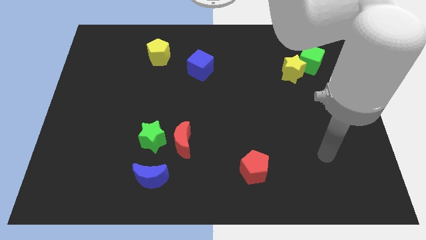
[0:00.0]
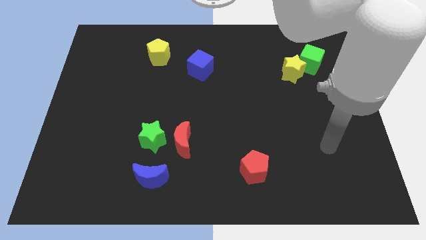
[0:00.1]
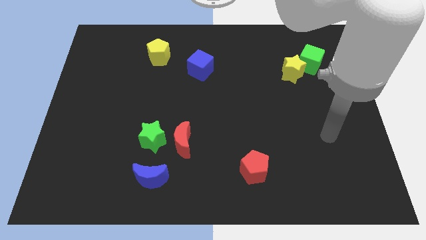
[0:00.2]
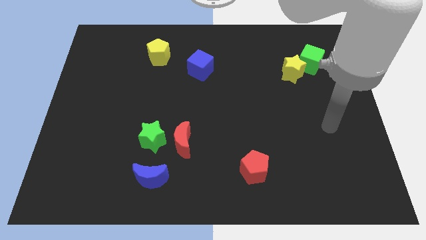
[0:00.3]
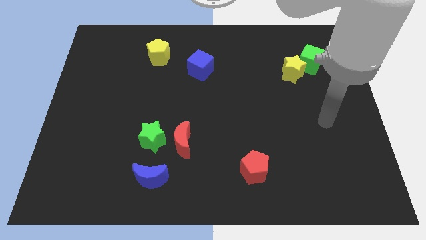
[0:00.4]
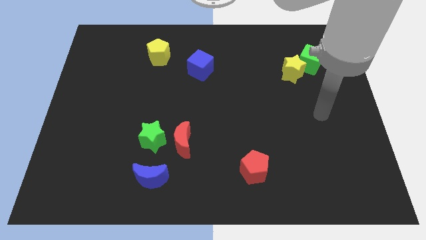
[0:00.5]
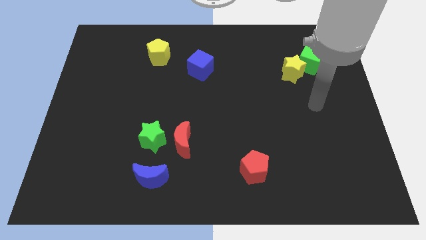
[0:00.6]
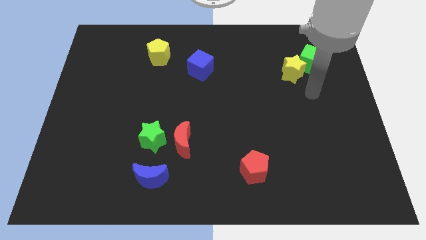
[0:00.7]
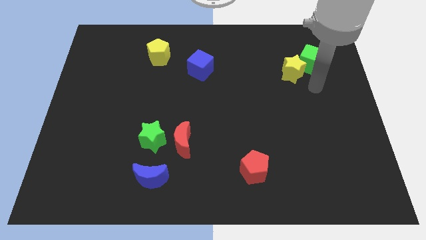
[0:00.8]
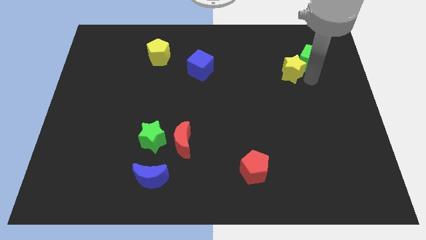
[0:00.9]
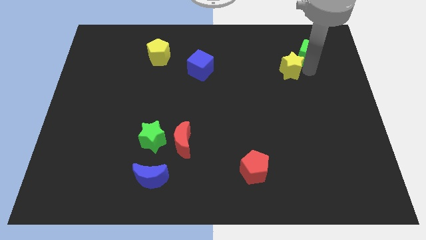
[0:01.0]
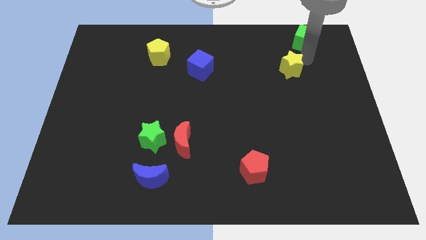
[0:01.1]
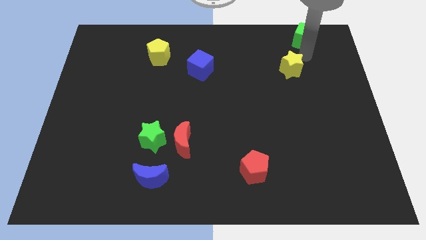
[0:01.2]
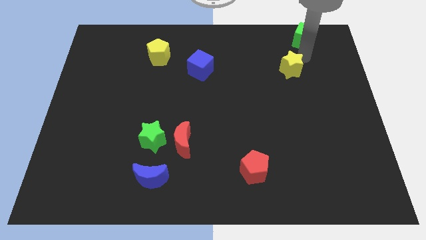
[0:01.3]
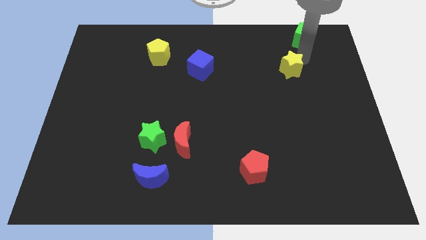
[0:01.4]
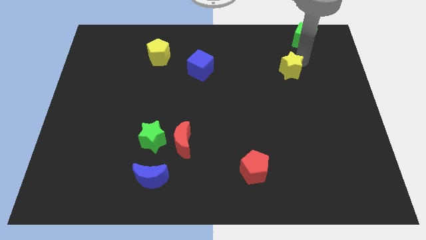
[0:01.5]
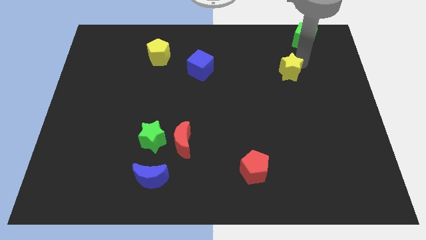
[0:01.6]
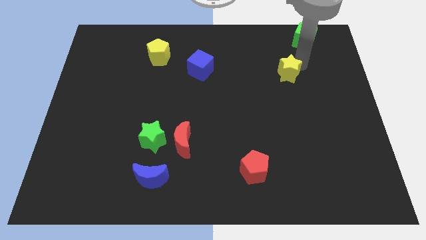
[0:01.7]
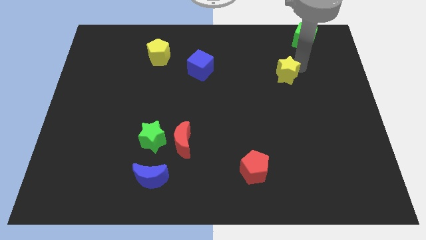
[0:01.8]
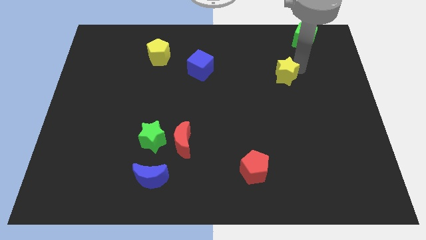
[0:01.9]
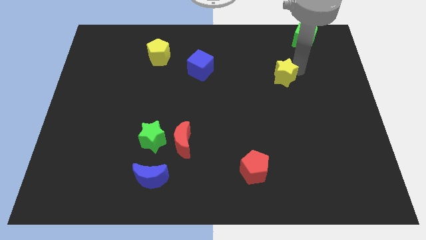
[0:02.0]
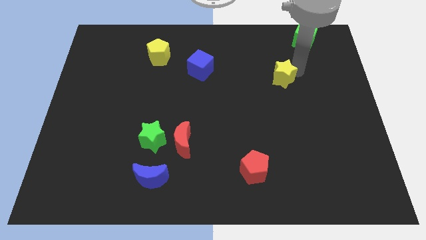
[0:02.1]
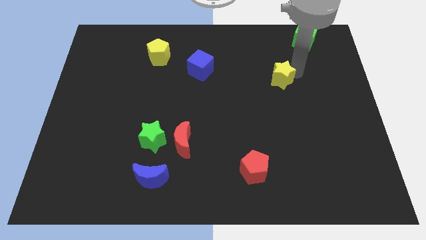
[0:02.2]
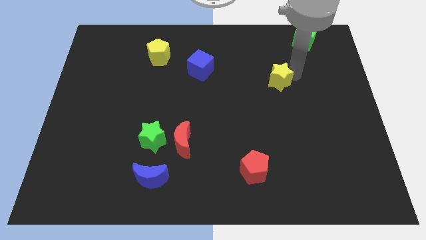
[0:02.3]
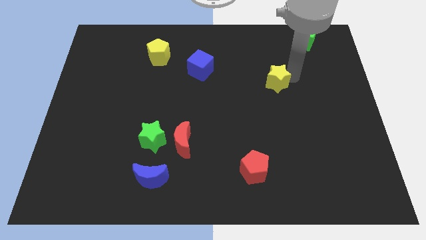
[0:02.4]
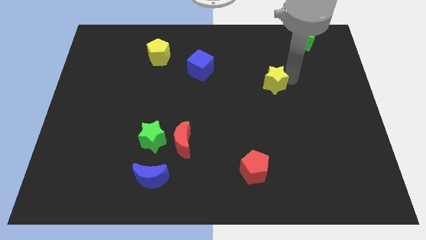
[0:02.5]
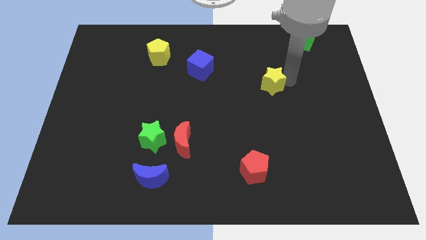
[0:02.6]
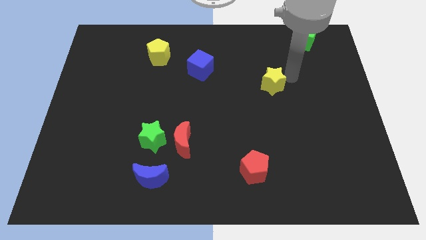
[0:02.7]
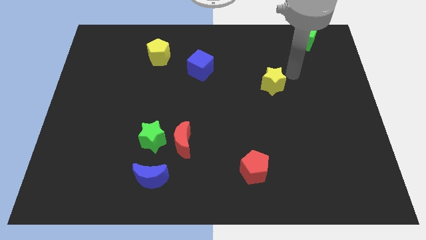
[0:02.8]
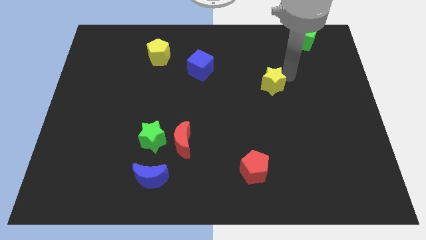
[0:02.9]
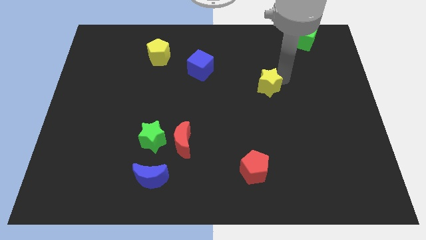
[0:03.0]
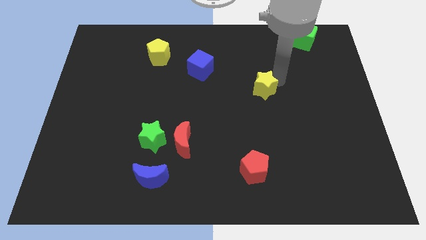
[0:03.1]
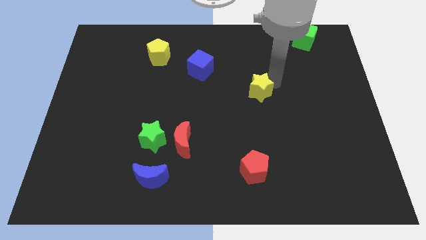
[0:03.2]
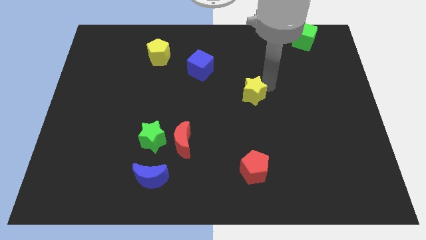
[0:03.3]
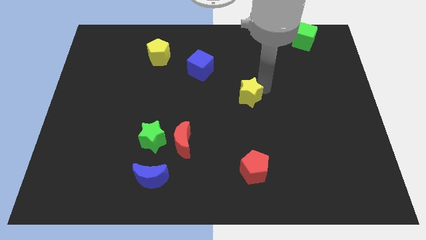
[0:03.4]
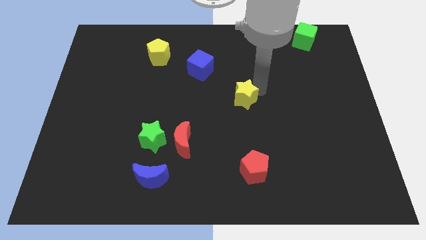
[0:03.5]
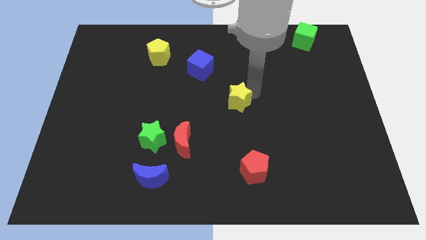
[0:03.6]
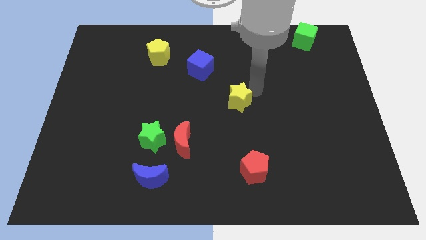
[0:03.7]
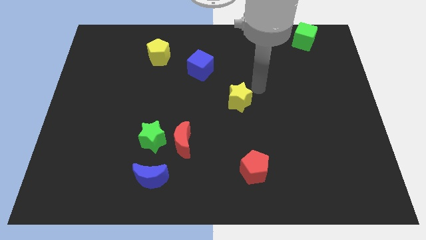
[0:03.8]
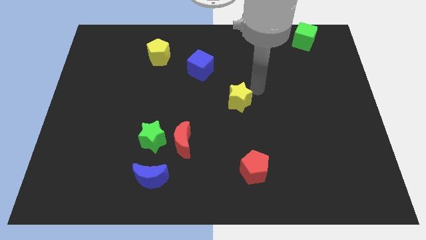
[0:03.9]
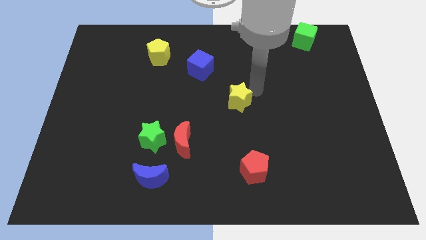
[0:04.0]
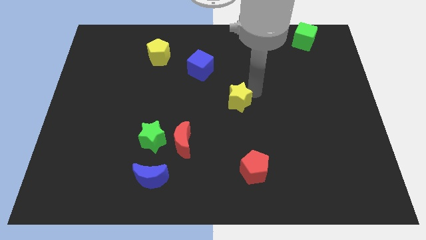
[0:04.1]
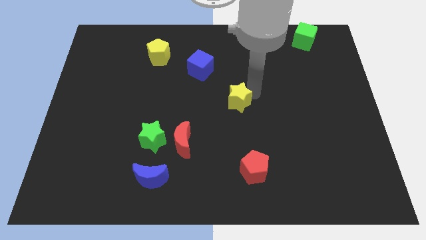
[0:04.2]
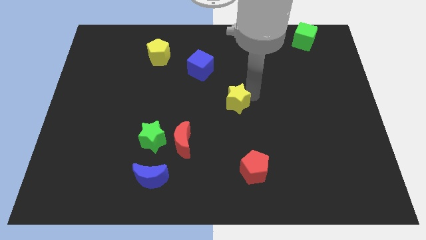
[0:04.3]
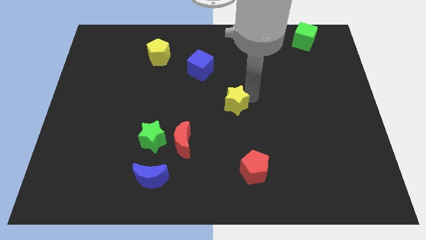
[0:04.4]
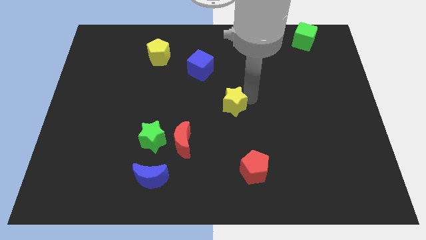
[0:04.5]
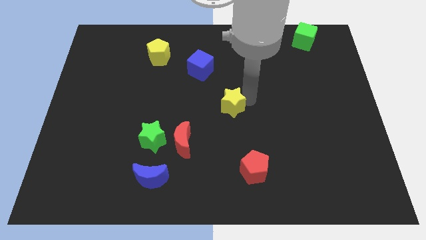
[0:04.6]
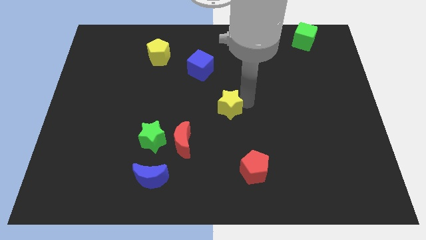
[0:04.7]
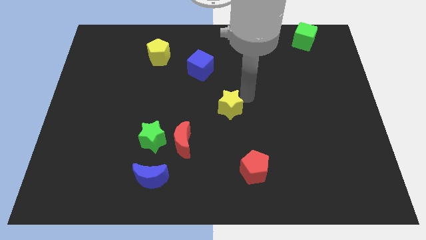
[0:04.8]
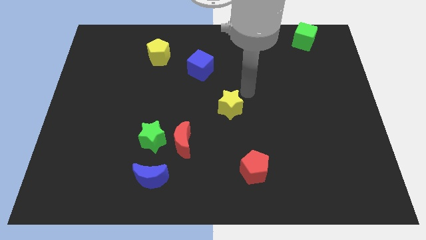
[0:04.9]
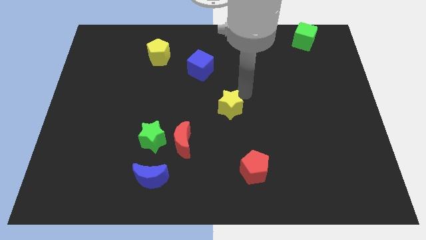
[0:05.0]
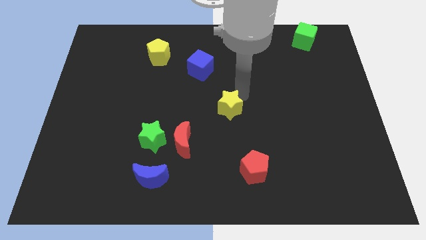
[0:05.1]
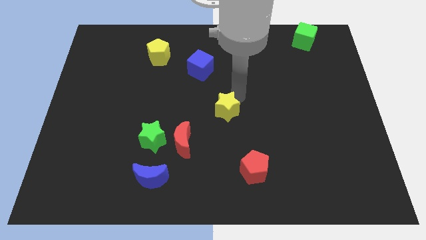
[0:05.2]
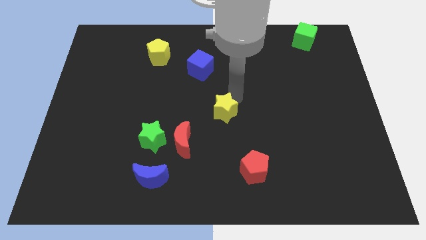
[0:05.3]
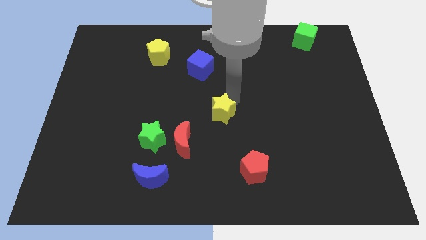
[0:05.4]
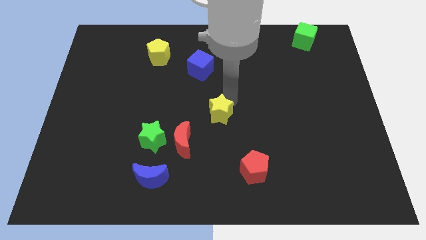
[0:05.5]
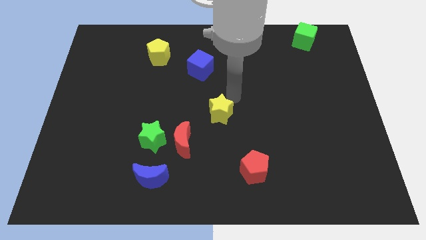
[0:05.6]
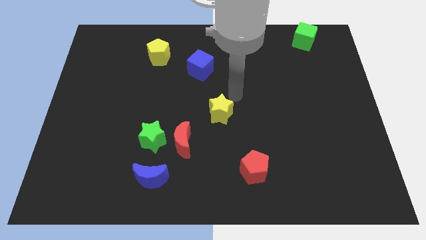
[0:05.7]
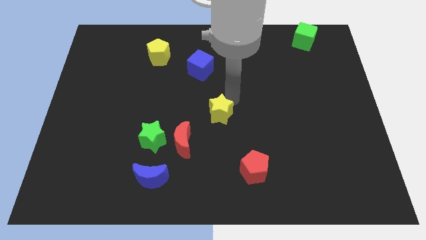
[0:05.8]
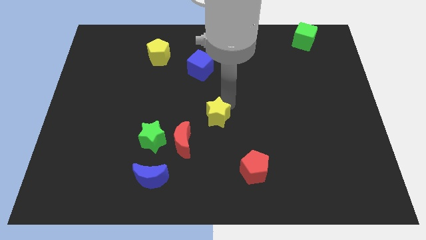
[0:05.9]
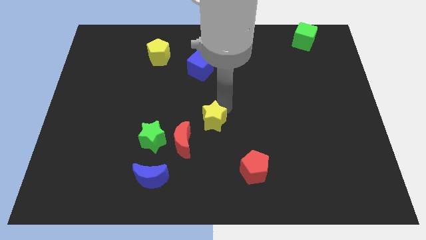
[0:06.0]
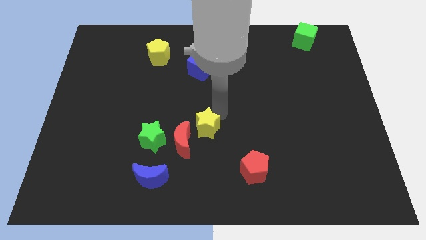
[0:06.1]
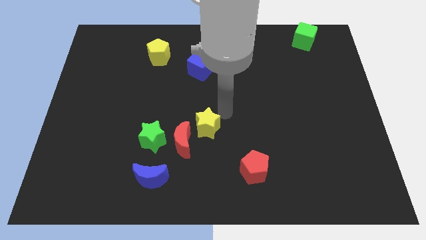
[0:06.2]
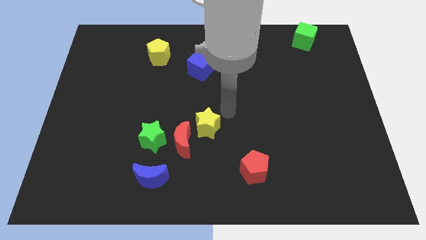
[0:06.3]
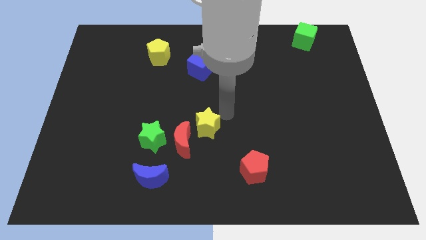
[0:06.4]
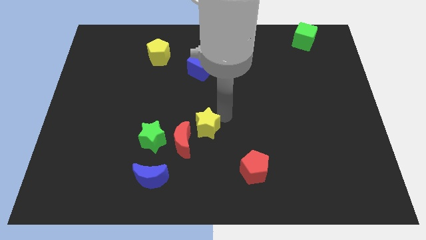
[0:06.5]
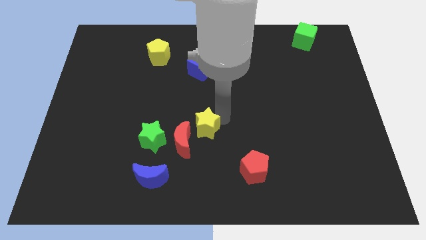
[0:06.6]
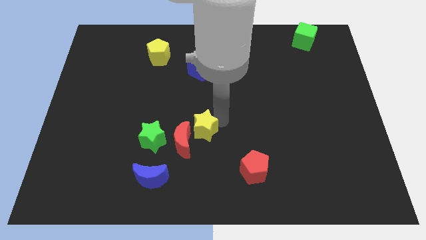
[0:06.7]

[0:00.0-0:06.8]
move the yellow star to the red moon

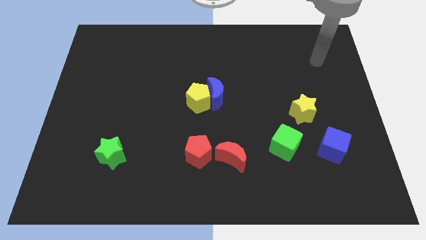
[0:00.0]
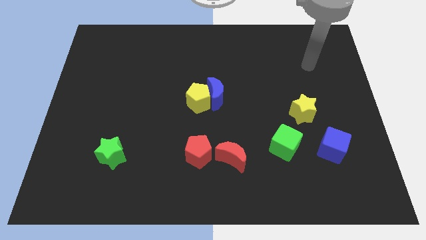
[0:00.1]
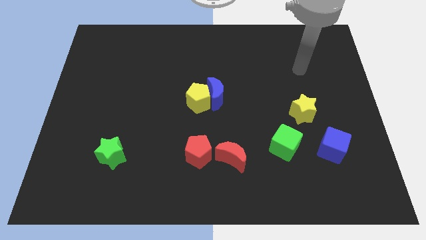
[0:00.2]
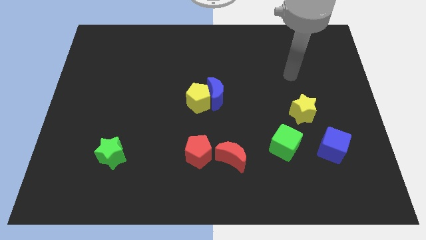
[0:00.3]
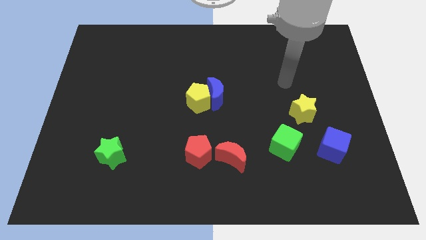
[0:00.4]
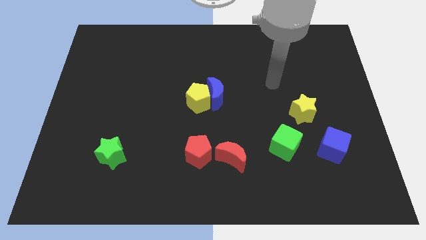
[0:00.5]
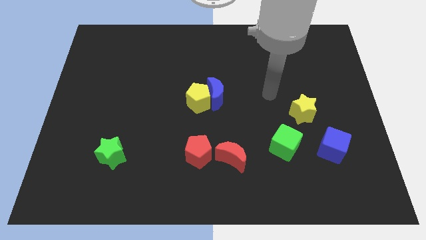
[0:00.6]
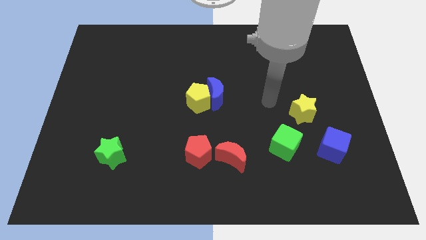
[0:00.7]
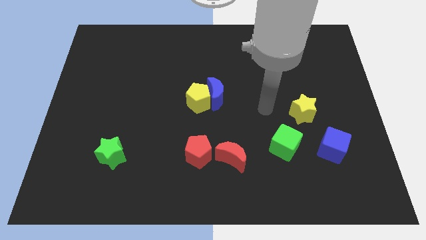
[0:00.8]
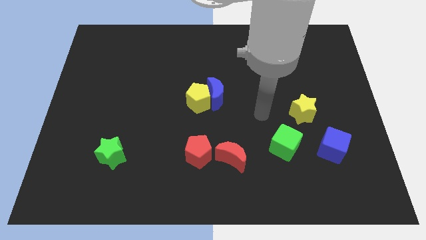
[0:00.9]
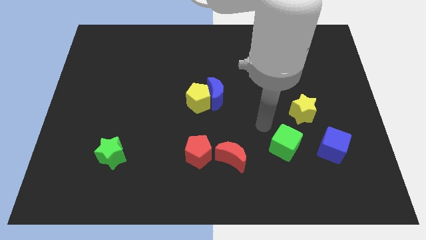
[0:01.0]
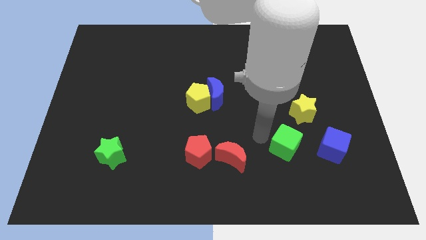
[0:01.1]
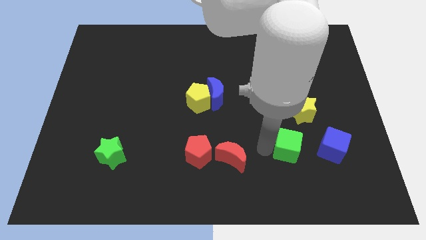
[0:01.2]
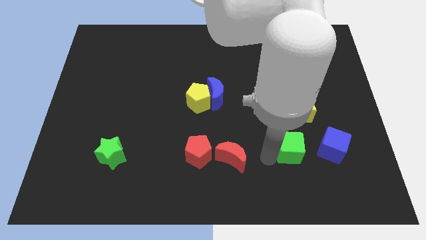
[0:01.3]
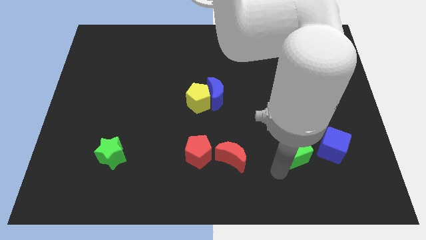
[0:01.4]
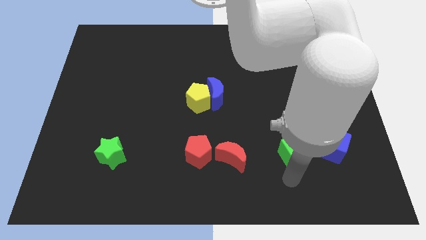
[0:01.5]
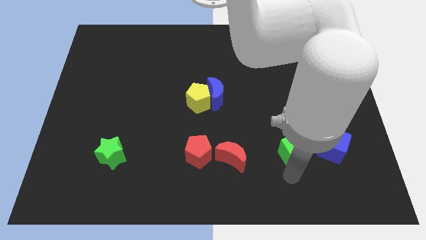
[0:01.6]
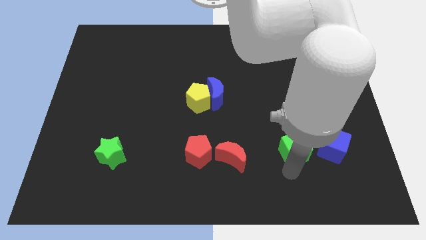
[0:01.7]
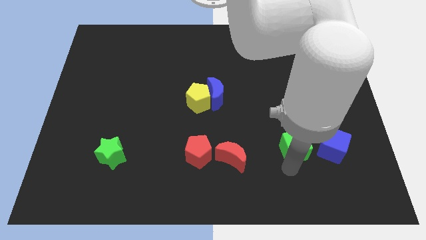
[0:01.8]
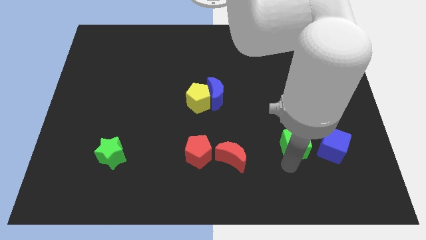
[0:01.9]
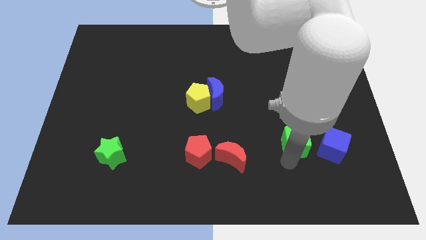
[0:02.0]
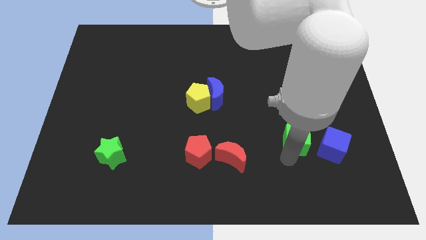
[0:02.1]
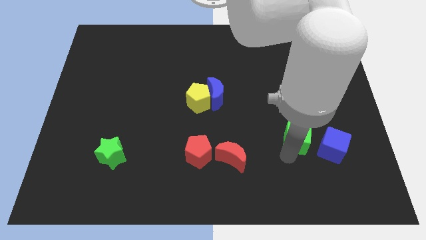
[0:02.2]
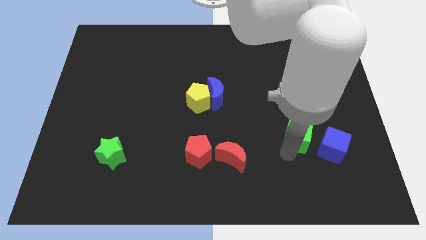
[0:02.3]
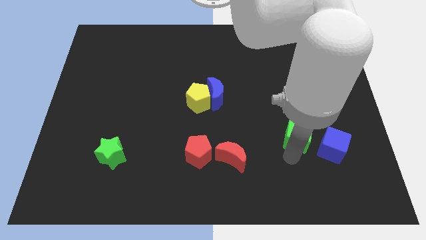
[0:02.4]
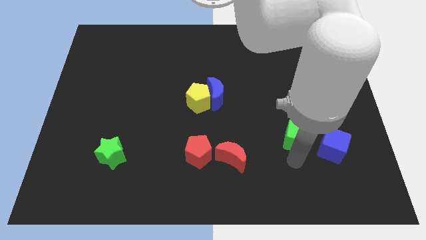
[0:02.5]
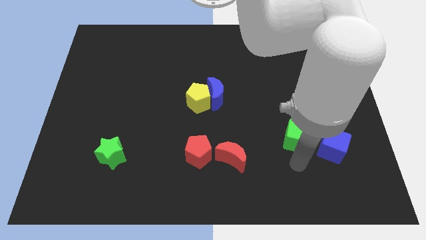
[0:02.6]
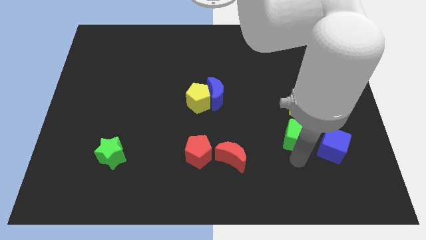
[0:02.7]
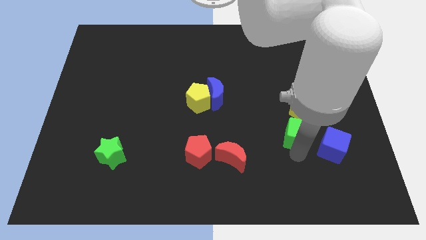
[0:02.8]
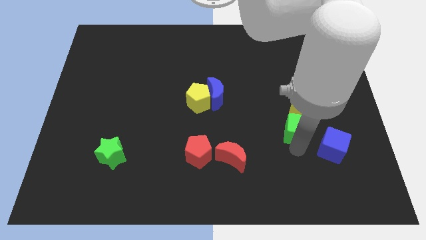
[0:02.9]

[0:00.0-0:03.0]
put the green cube towards the yellow star
